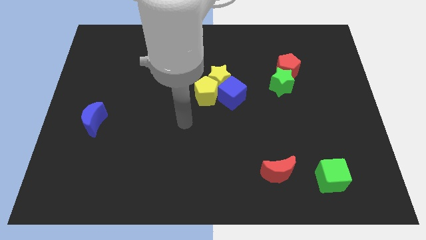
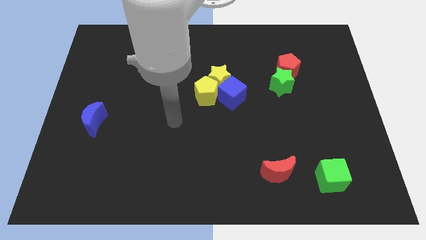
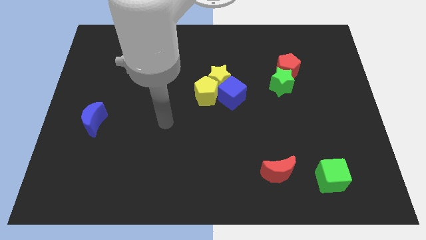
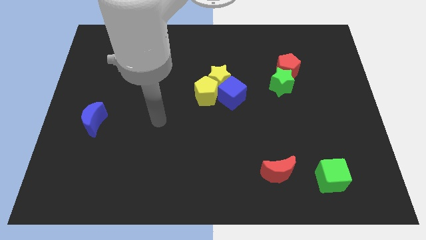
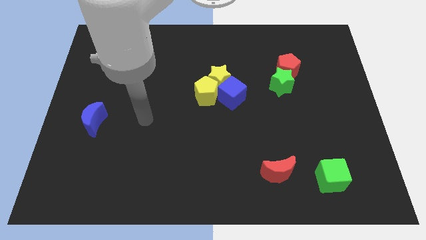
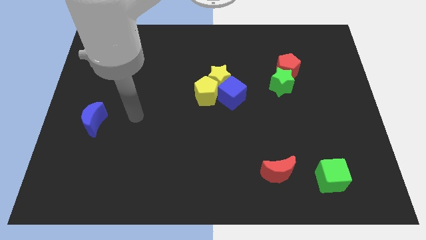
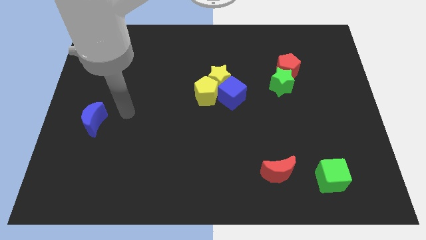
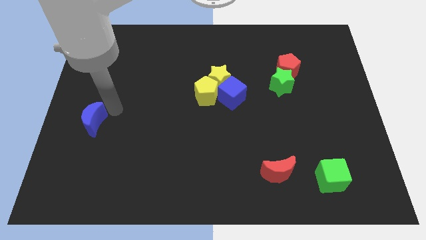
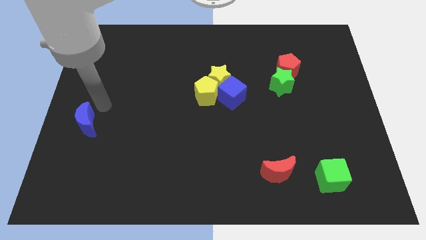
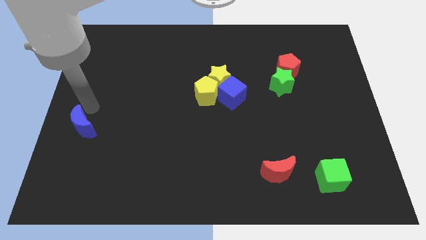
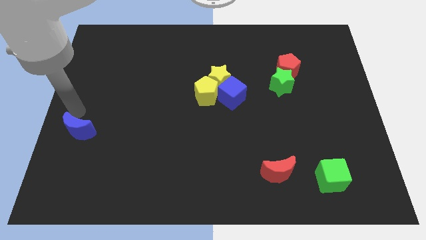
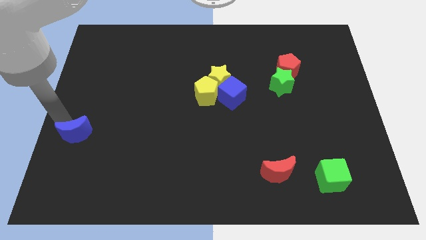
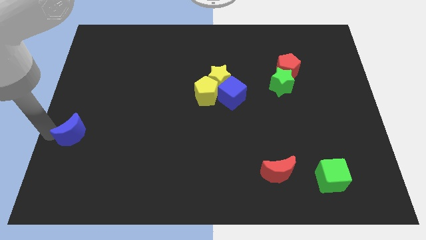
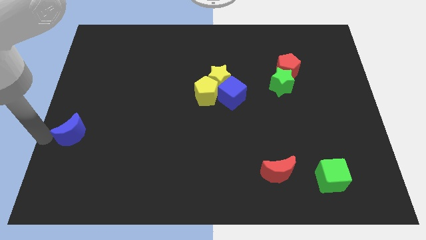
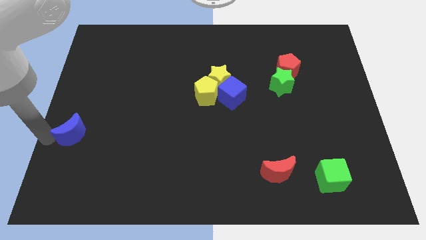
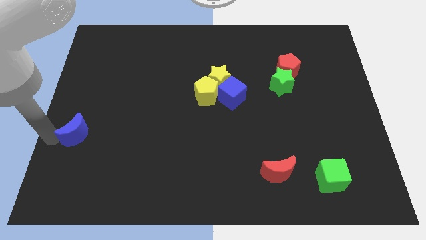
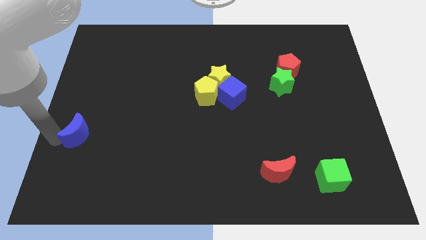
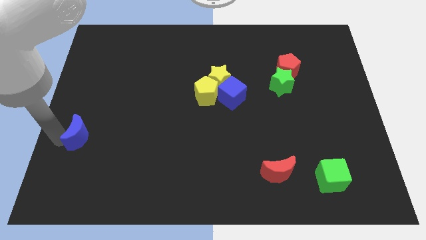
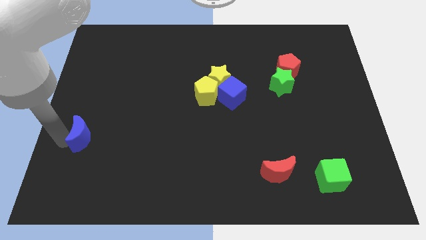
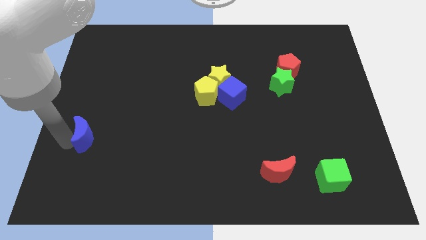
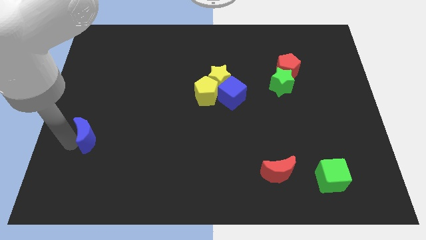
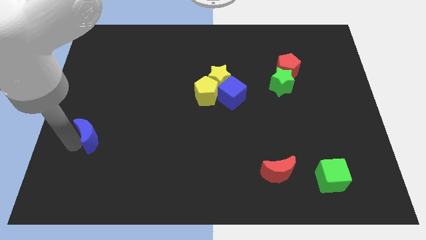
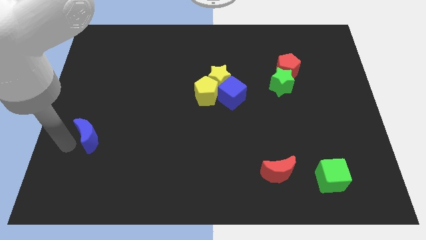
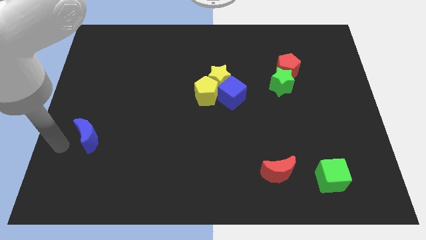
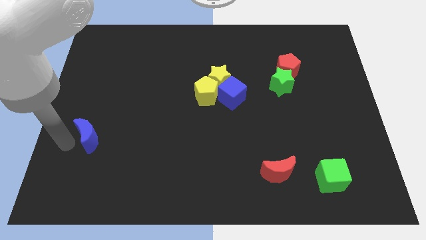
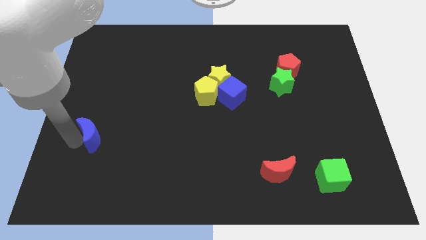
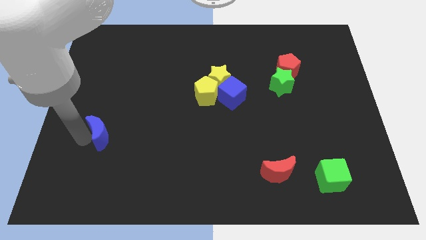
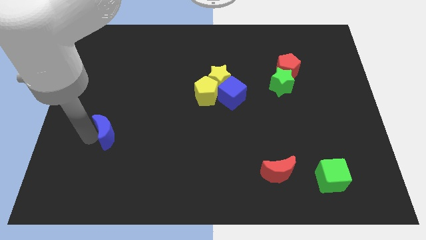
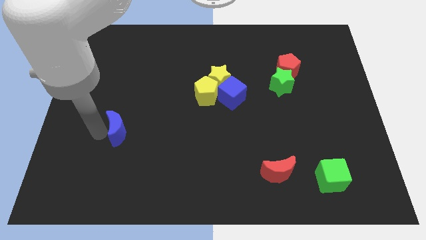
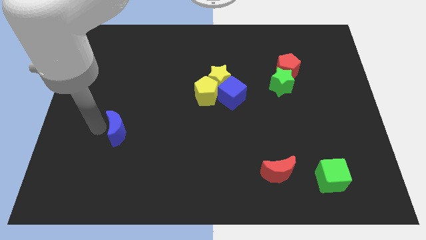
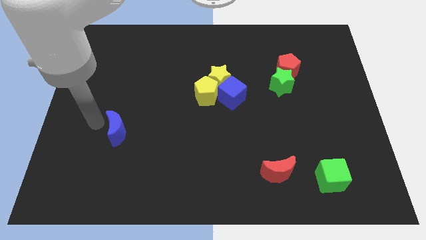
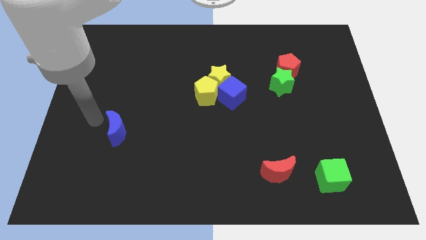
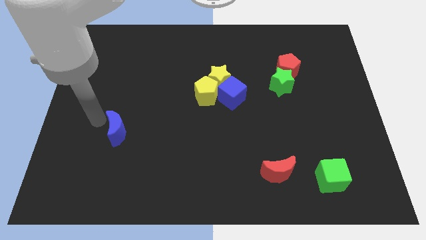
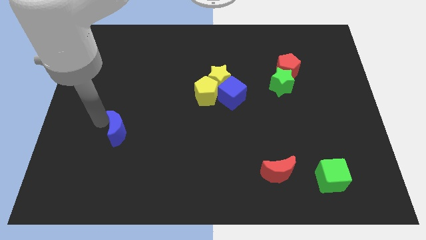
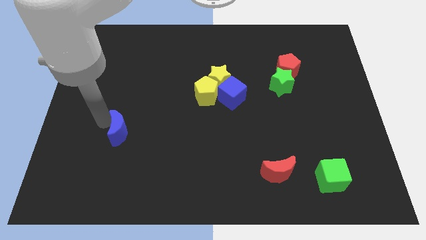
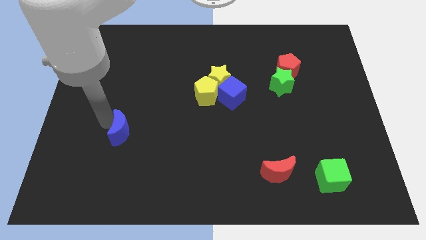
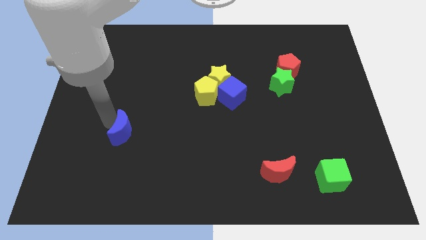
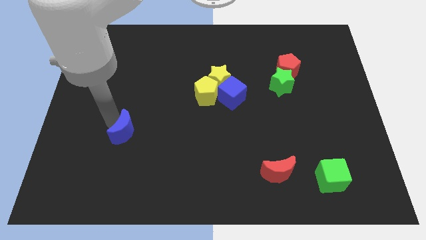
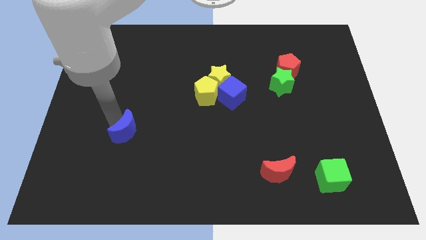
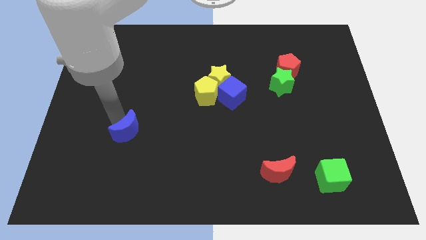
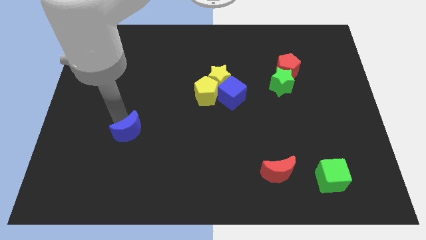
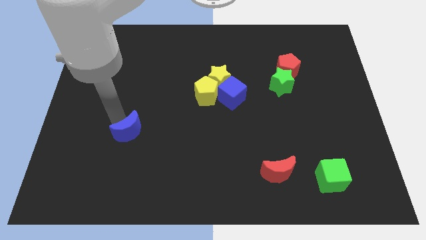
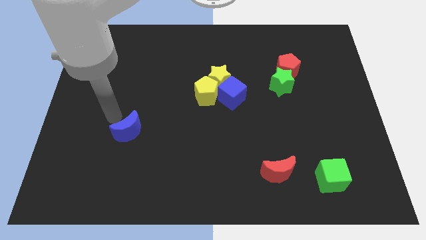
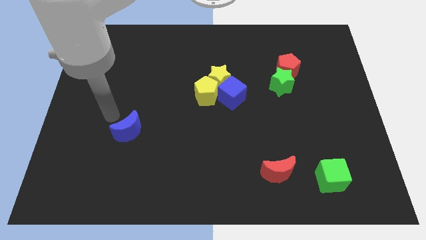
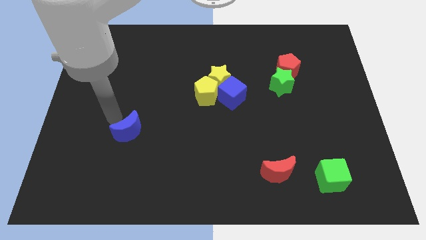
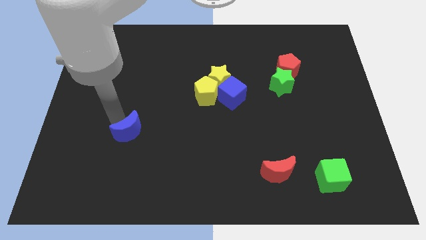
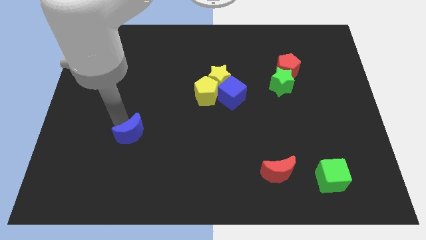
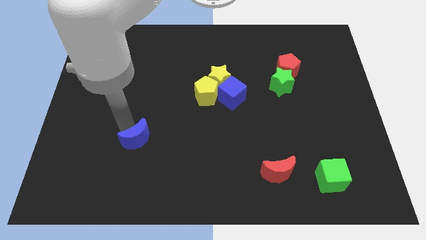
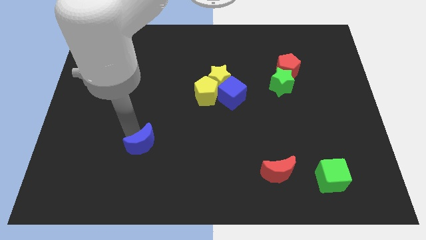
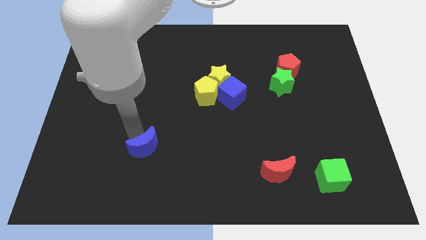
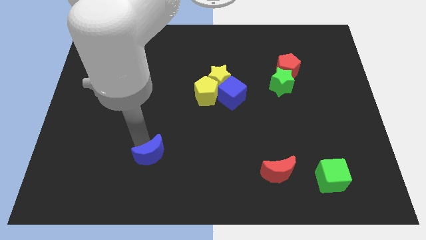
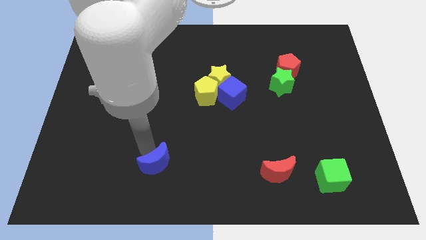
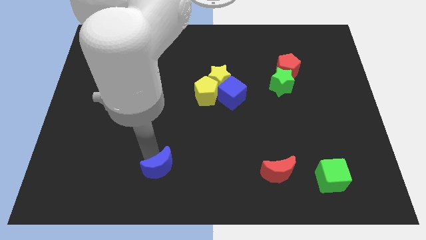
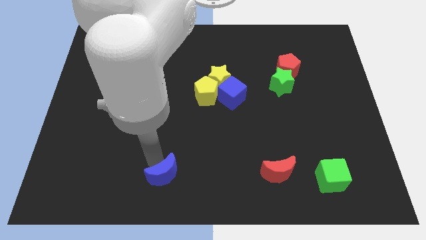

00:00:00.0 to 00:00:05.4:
push the blue moon to the bottom side
